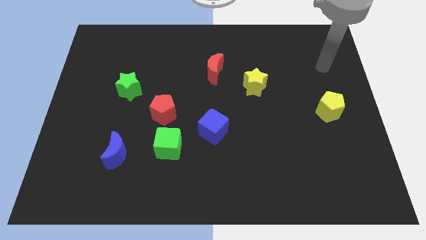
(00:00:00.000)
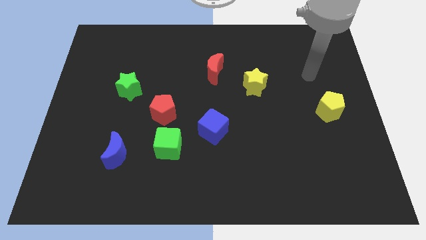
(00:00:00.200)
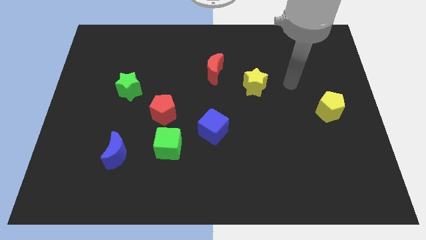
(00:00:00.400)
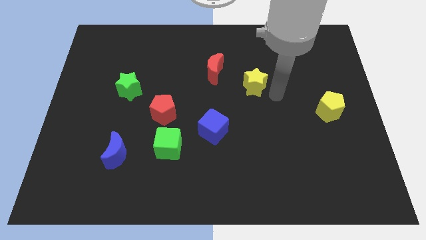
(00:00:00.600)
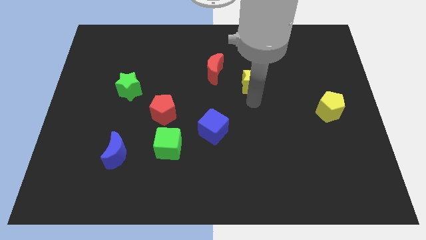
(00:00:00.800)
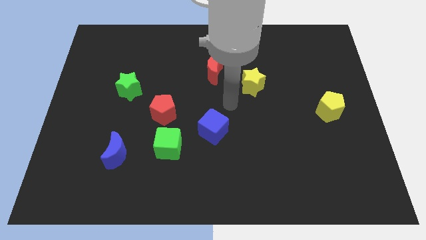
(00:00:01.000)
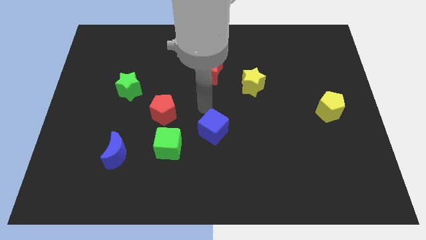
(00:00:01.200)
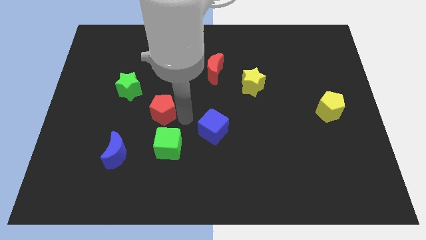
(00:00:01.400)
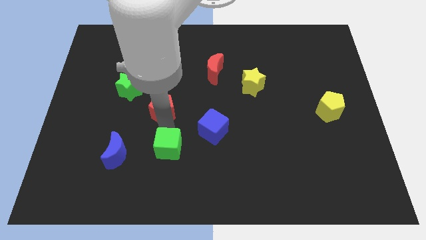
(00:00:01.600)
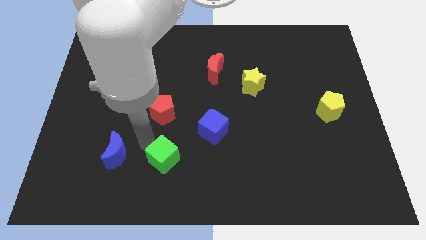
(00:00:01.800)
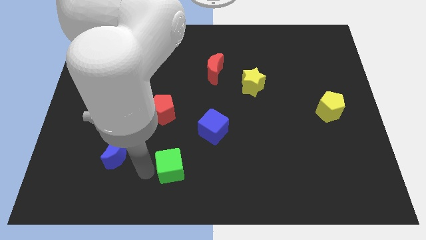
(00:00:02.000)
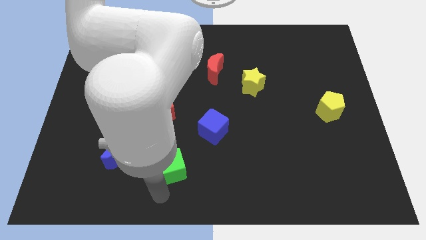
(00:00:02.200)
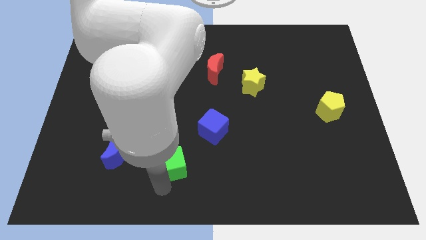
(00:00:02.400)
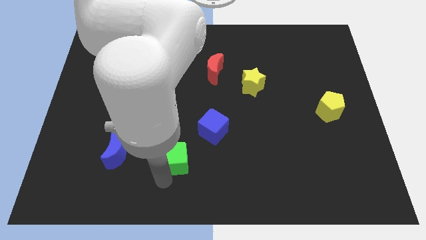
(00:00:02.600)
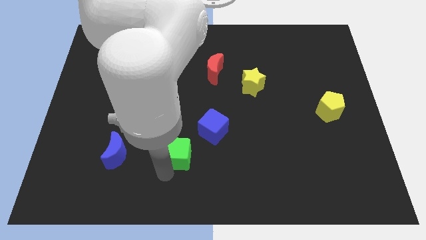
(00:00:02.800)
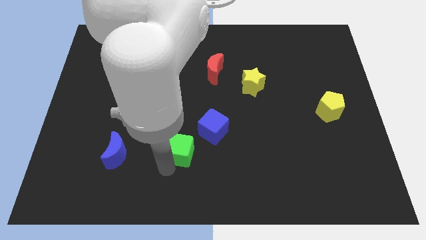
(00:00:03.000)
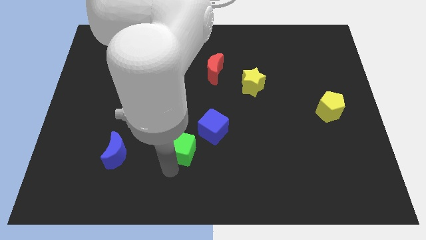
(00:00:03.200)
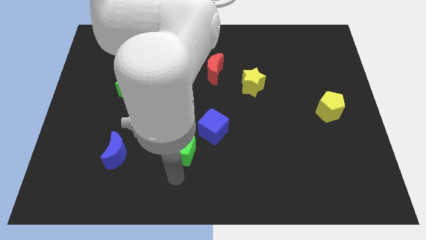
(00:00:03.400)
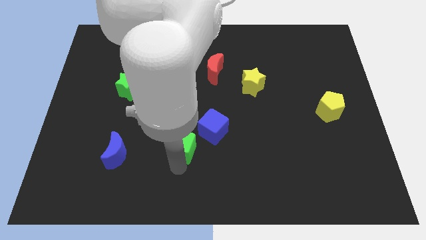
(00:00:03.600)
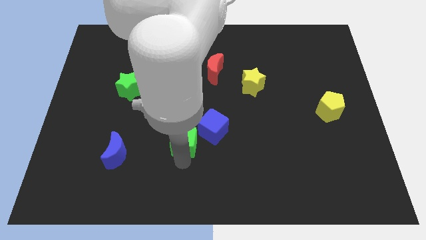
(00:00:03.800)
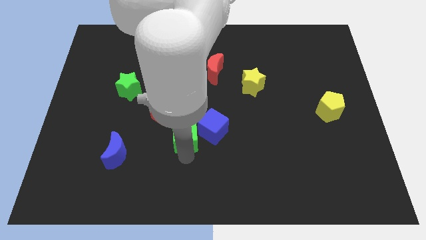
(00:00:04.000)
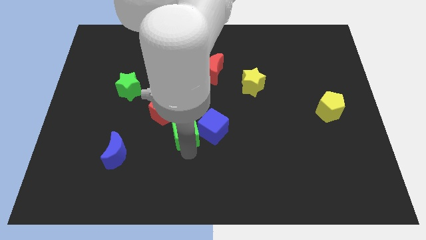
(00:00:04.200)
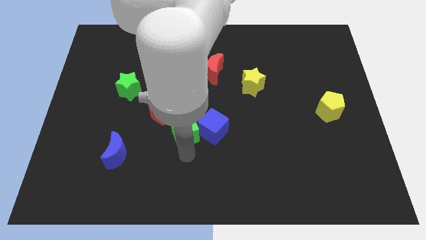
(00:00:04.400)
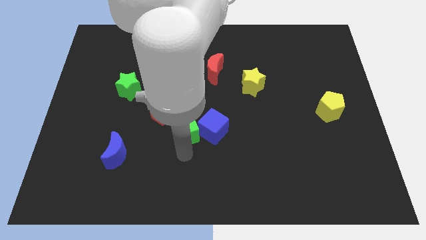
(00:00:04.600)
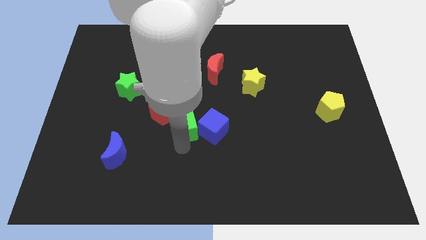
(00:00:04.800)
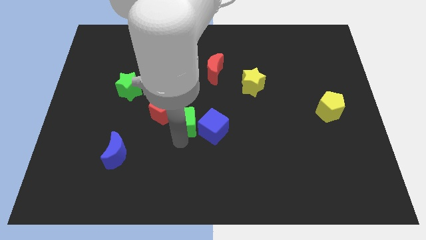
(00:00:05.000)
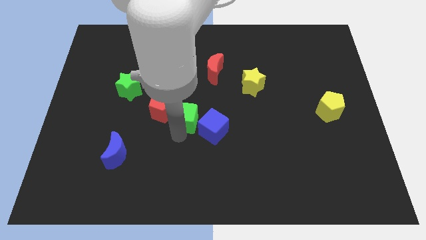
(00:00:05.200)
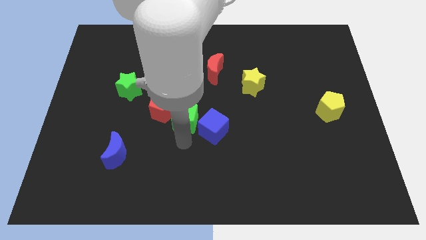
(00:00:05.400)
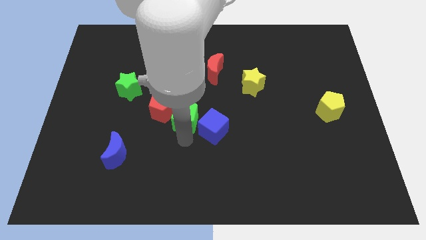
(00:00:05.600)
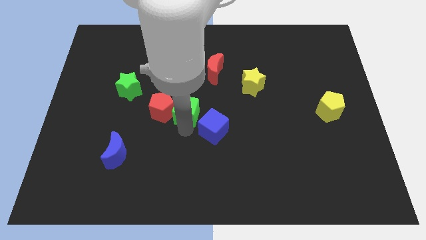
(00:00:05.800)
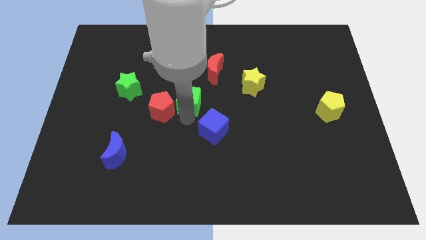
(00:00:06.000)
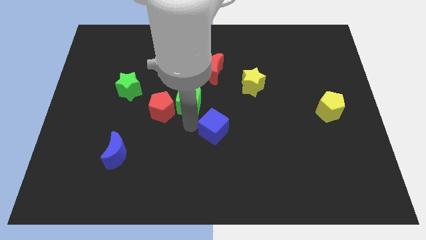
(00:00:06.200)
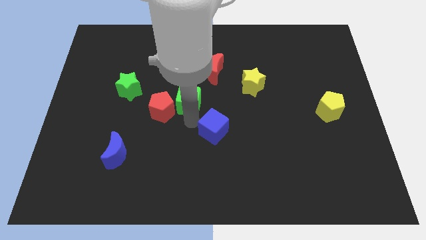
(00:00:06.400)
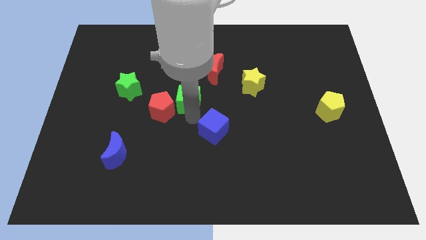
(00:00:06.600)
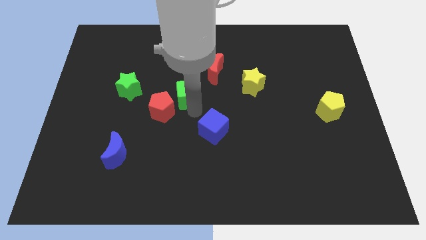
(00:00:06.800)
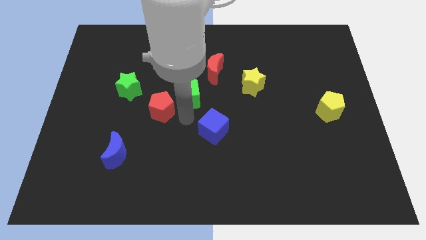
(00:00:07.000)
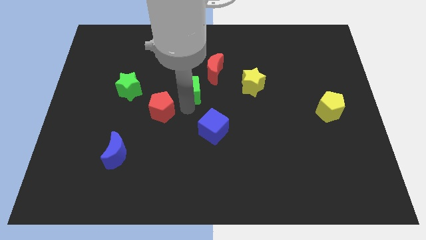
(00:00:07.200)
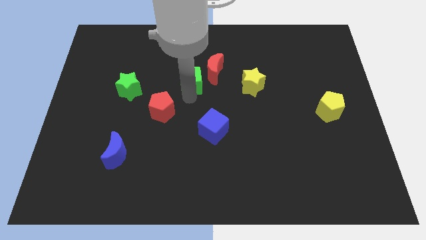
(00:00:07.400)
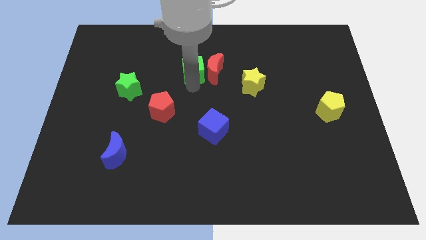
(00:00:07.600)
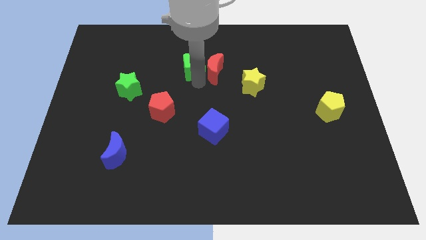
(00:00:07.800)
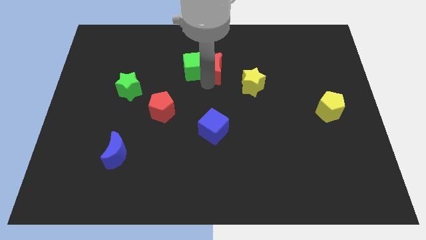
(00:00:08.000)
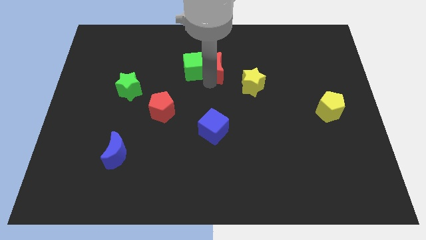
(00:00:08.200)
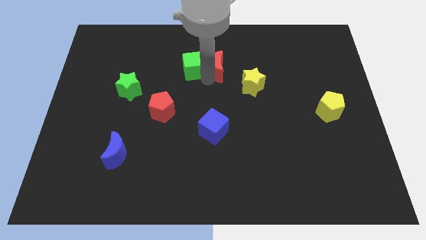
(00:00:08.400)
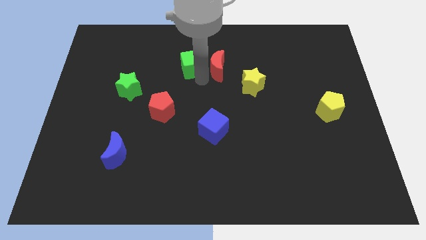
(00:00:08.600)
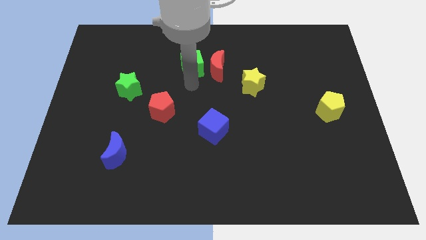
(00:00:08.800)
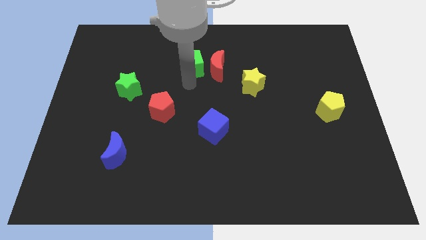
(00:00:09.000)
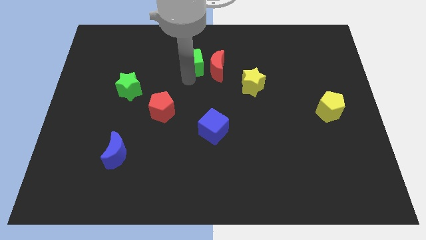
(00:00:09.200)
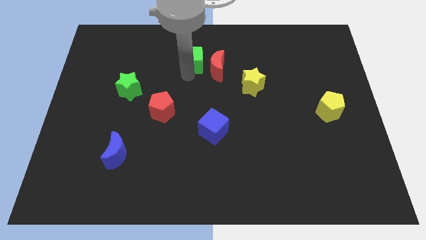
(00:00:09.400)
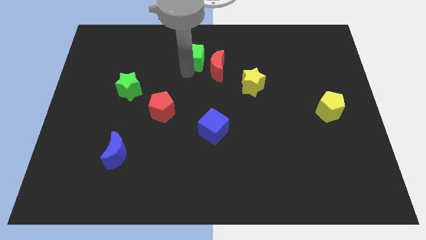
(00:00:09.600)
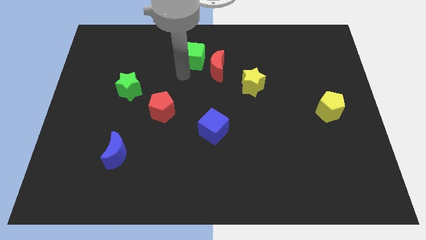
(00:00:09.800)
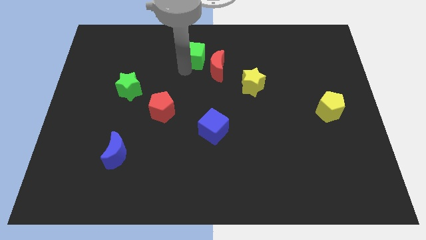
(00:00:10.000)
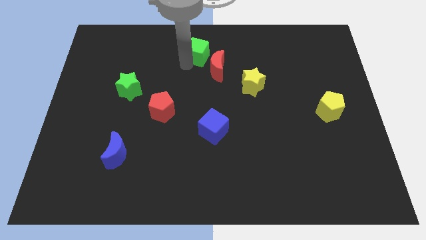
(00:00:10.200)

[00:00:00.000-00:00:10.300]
push the green cube to the towards your base

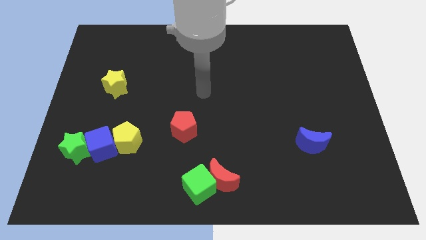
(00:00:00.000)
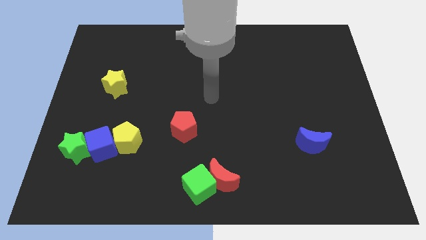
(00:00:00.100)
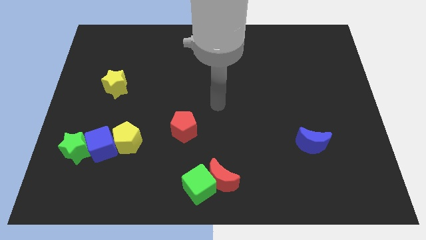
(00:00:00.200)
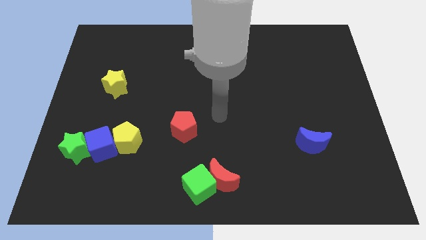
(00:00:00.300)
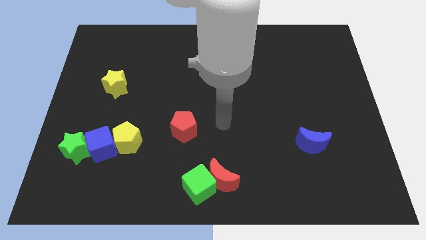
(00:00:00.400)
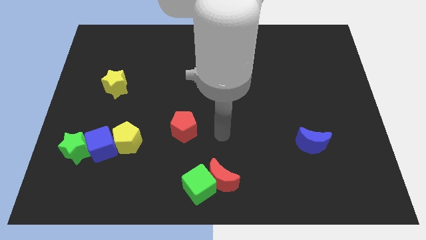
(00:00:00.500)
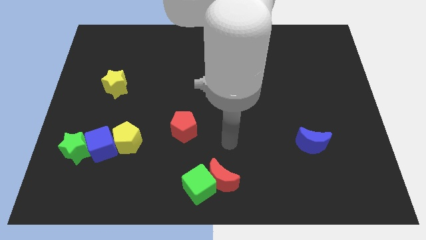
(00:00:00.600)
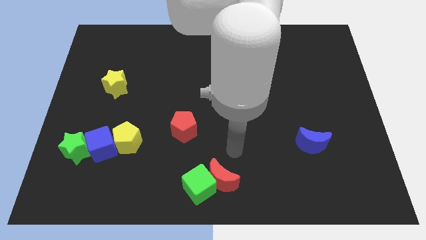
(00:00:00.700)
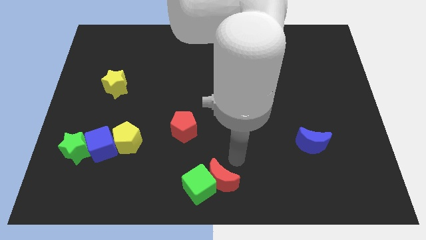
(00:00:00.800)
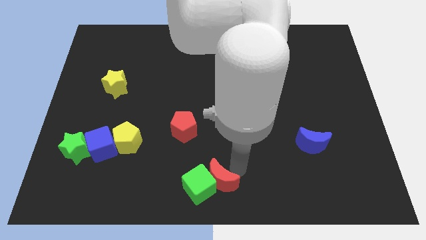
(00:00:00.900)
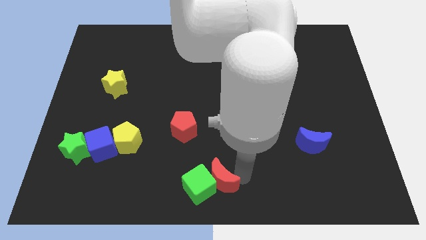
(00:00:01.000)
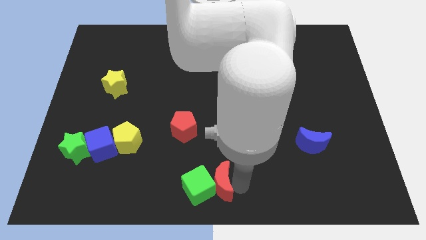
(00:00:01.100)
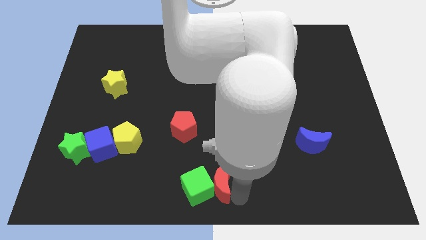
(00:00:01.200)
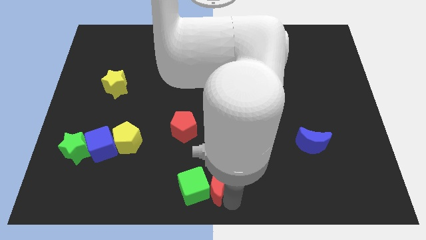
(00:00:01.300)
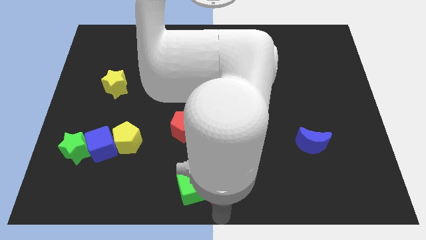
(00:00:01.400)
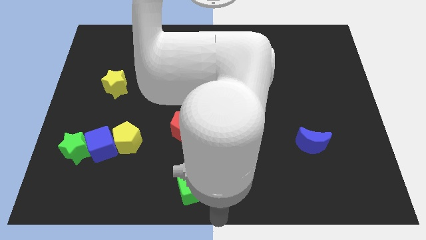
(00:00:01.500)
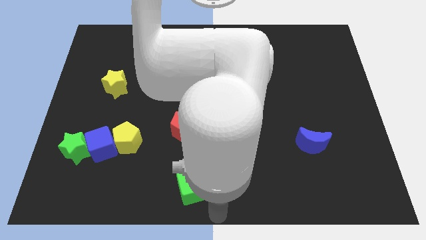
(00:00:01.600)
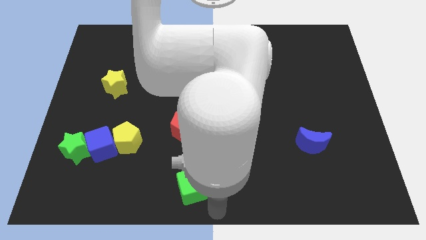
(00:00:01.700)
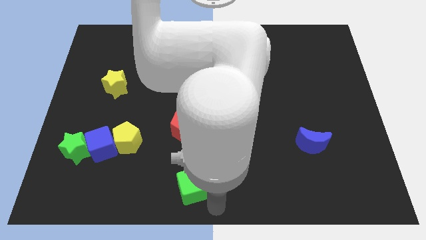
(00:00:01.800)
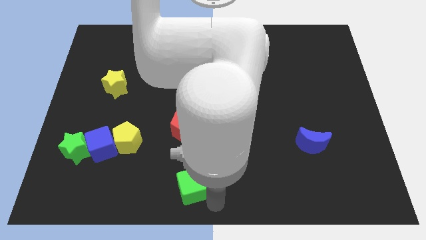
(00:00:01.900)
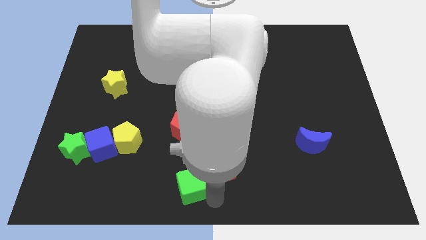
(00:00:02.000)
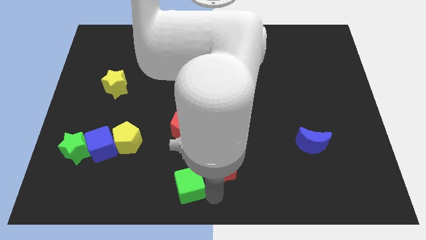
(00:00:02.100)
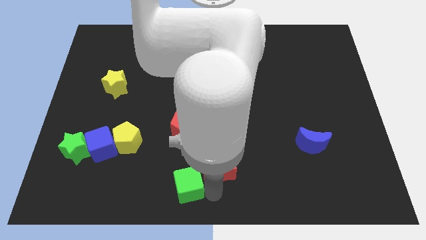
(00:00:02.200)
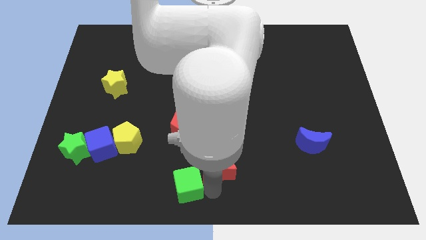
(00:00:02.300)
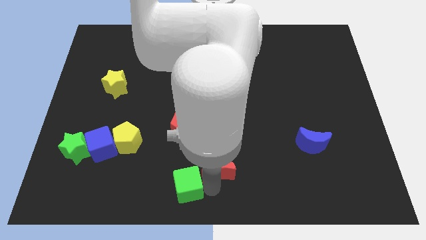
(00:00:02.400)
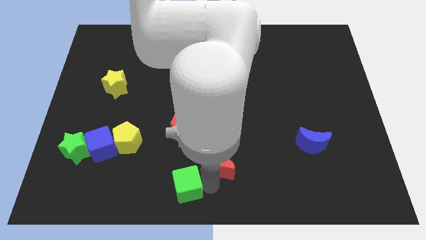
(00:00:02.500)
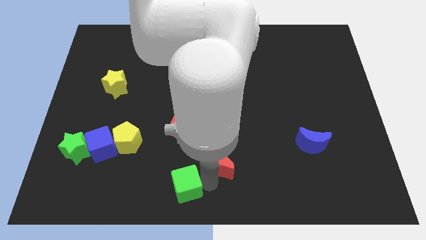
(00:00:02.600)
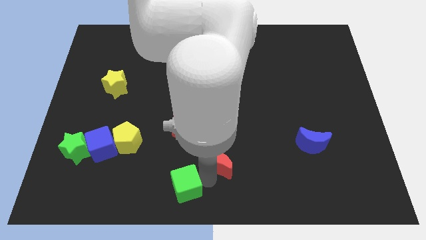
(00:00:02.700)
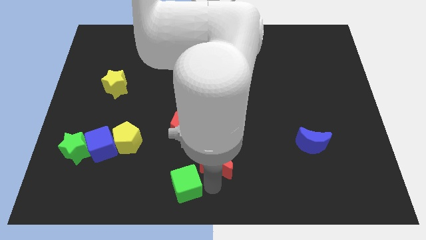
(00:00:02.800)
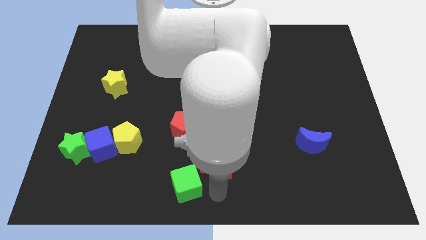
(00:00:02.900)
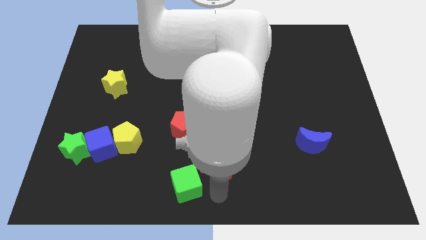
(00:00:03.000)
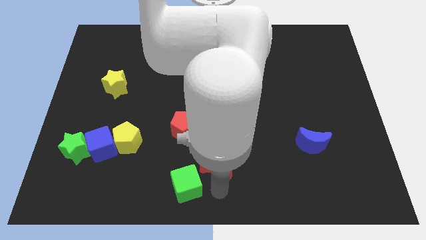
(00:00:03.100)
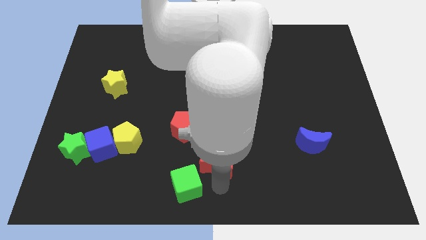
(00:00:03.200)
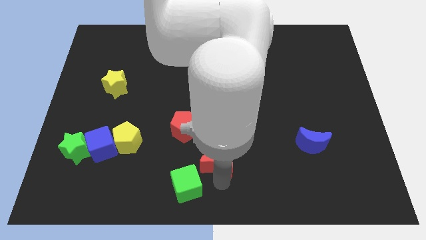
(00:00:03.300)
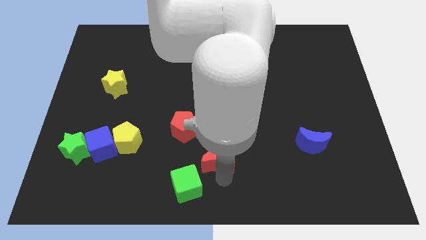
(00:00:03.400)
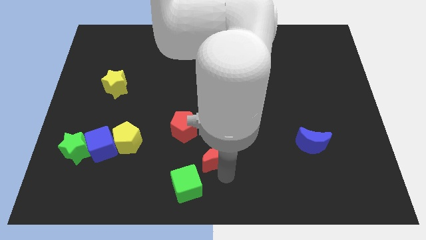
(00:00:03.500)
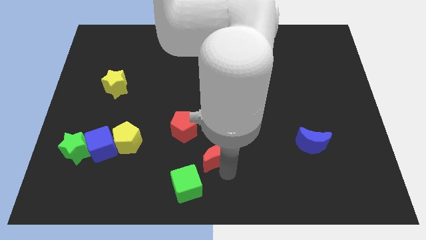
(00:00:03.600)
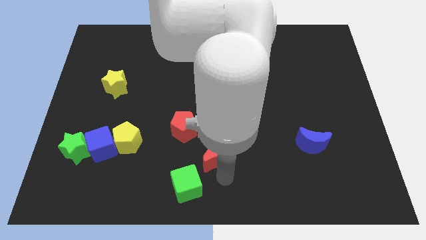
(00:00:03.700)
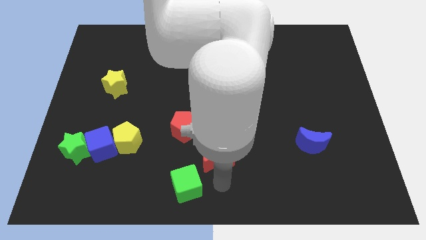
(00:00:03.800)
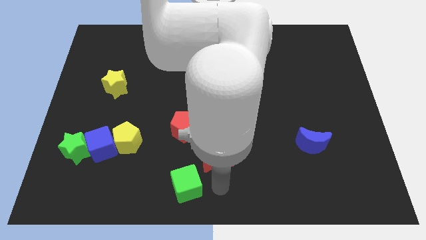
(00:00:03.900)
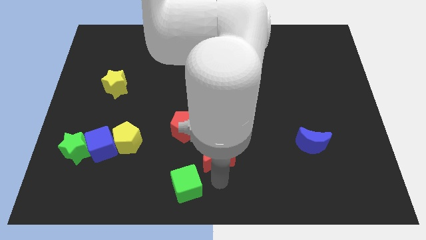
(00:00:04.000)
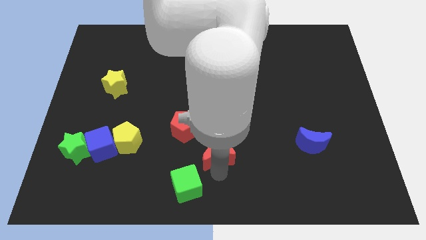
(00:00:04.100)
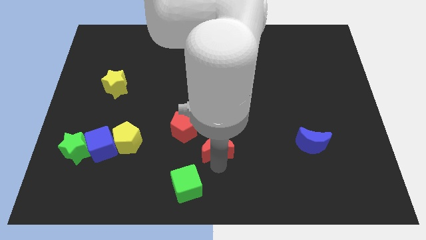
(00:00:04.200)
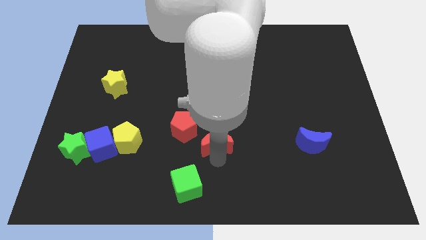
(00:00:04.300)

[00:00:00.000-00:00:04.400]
move the red moon to the middle of the board
